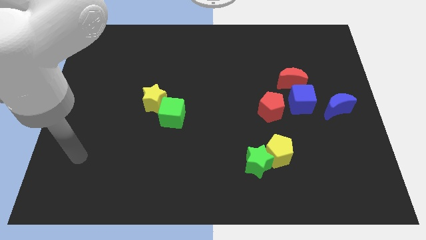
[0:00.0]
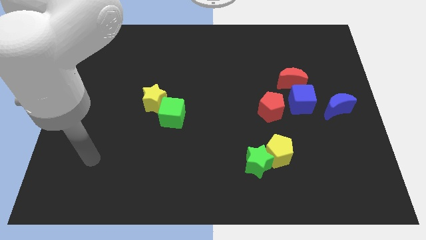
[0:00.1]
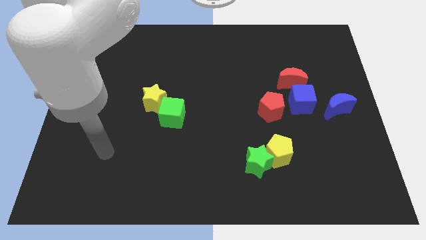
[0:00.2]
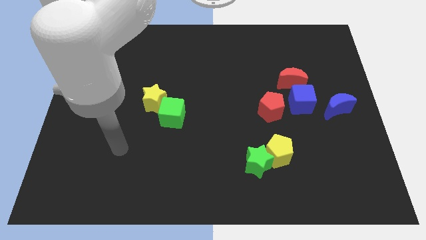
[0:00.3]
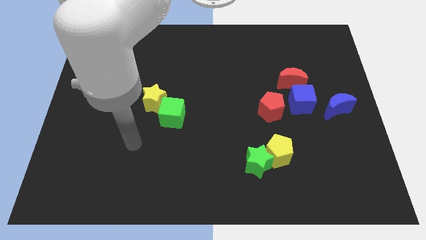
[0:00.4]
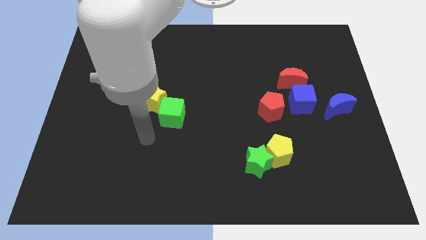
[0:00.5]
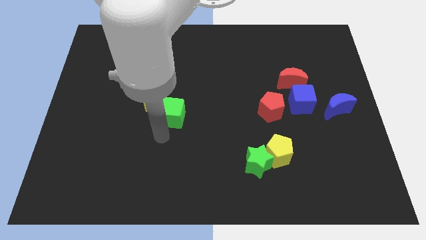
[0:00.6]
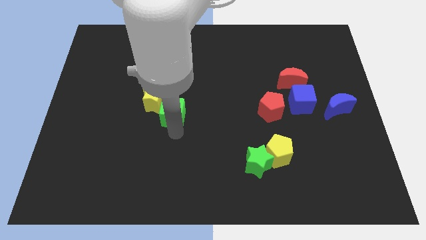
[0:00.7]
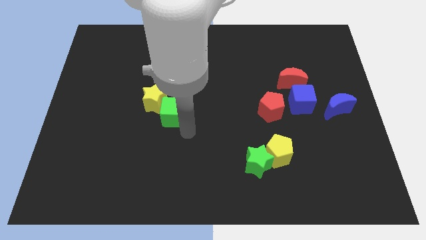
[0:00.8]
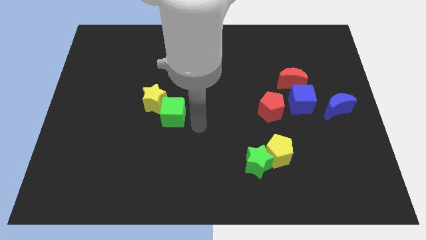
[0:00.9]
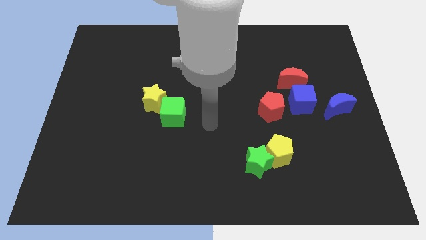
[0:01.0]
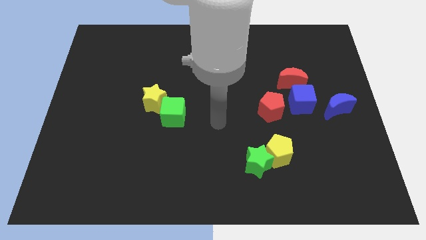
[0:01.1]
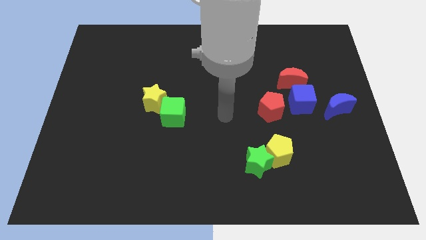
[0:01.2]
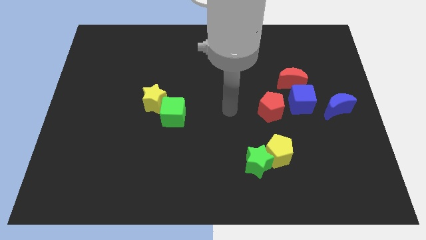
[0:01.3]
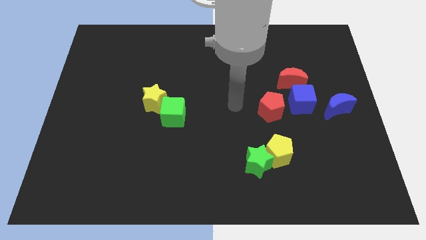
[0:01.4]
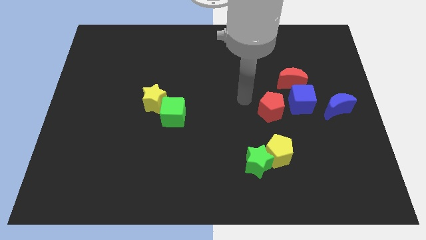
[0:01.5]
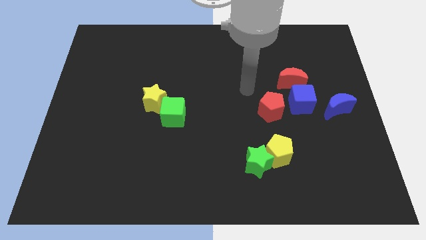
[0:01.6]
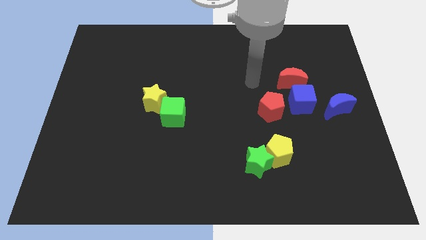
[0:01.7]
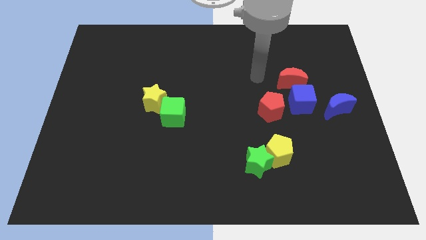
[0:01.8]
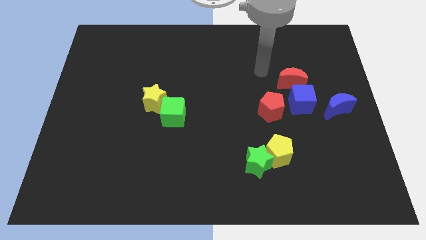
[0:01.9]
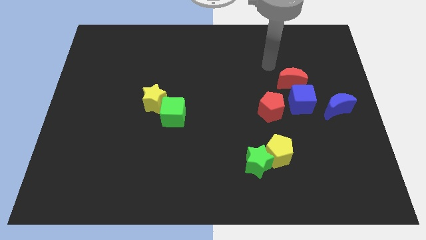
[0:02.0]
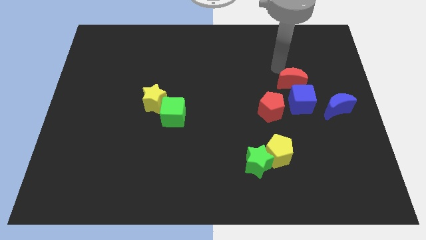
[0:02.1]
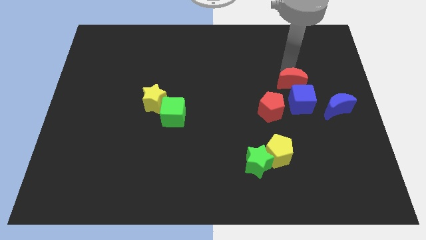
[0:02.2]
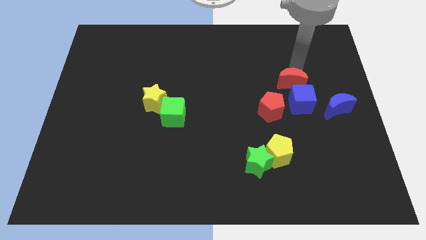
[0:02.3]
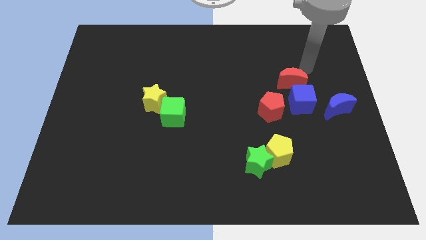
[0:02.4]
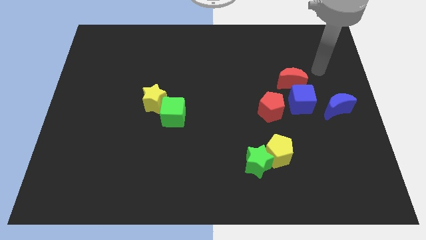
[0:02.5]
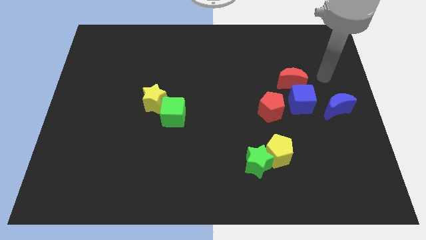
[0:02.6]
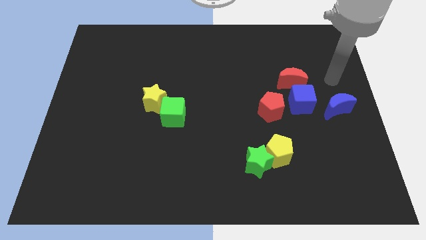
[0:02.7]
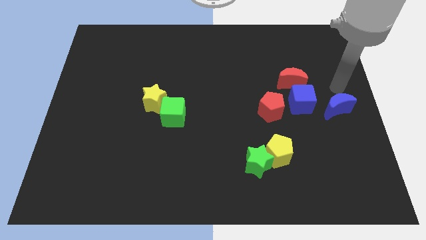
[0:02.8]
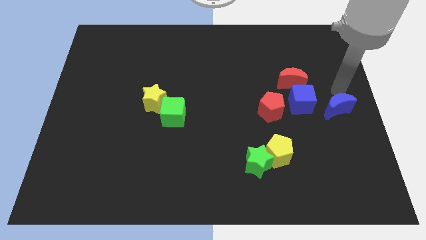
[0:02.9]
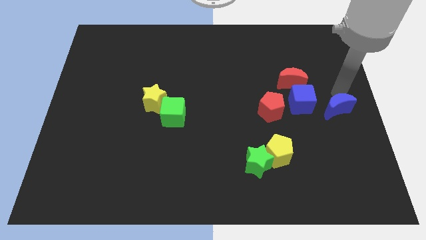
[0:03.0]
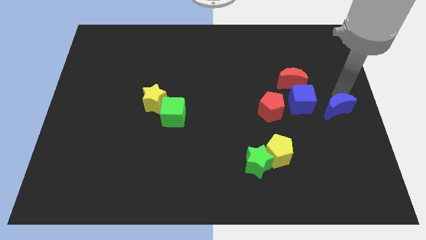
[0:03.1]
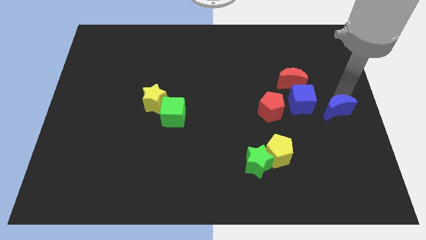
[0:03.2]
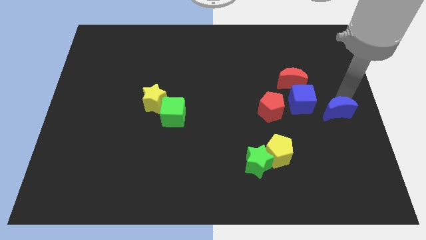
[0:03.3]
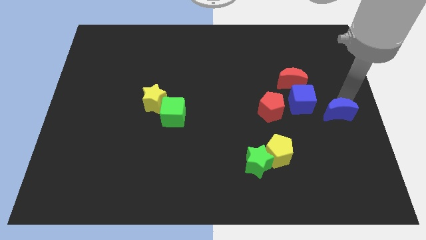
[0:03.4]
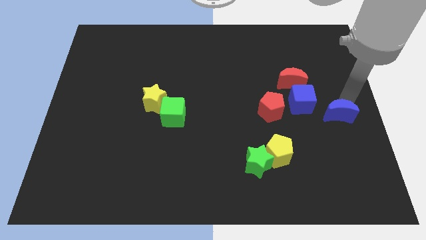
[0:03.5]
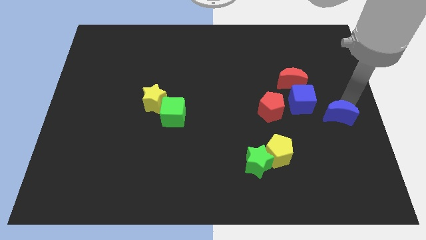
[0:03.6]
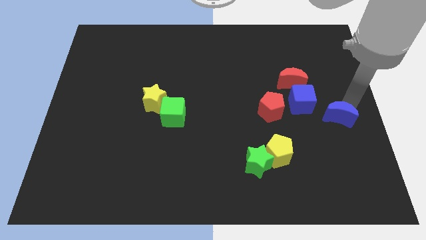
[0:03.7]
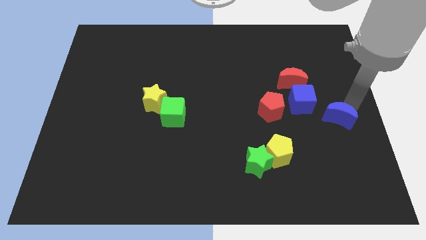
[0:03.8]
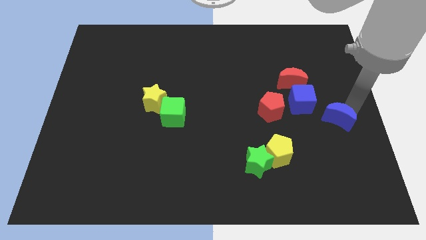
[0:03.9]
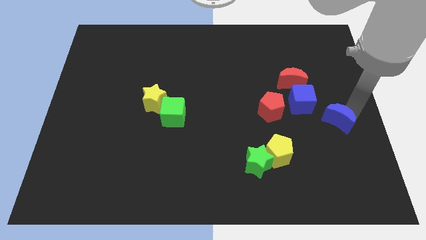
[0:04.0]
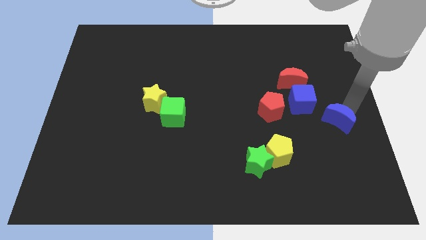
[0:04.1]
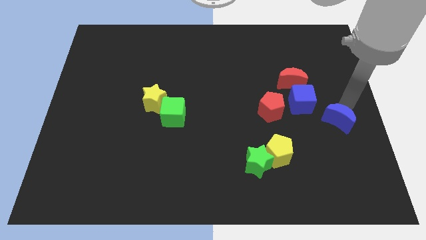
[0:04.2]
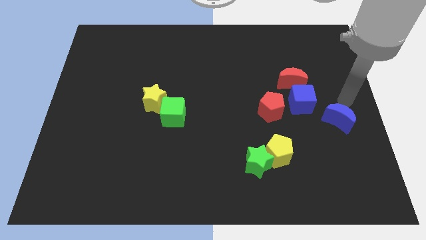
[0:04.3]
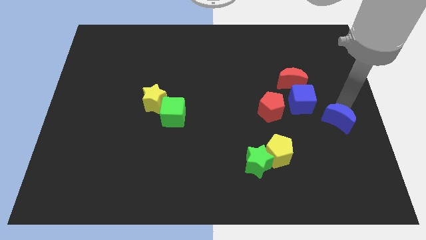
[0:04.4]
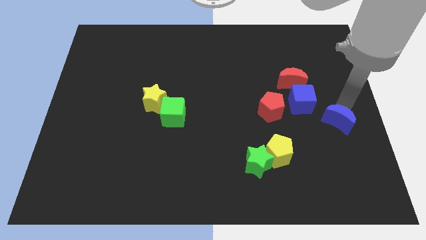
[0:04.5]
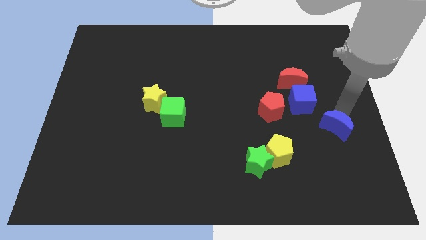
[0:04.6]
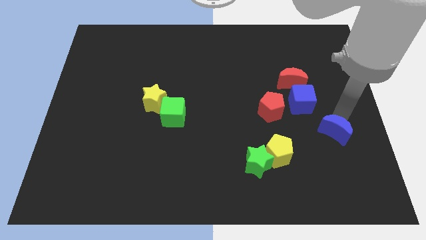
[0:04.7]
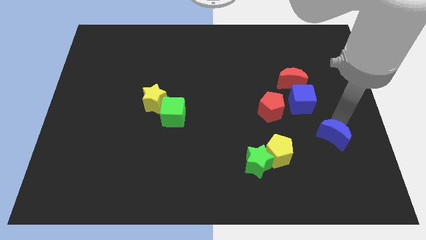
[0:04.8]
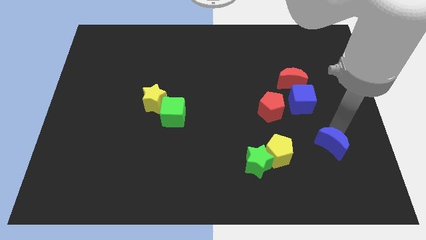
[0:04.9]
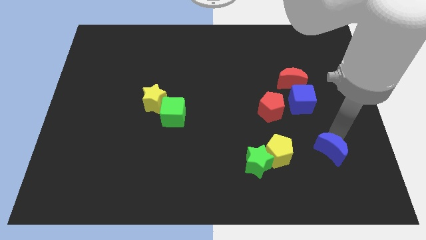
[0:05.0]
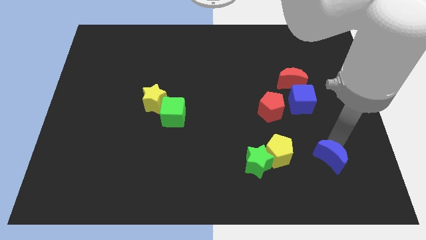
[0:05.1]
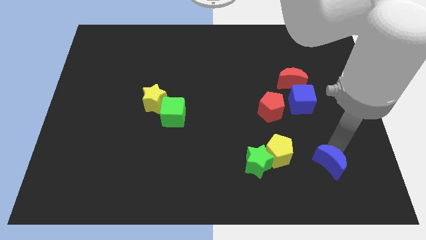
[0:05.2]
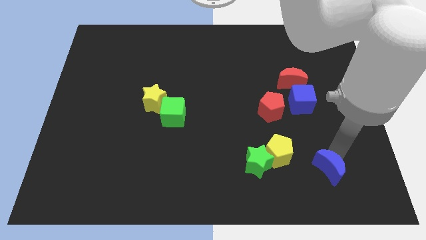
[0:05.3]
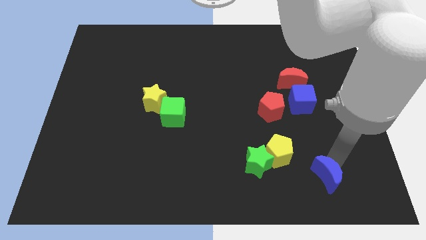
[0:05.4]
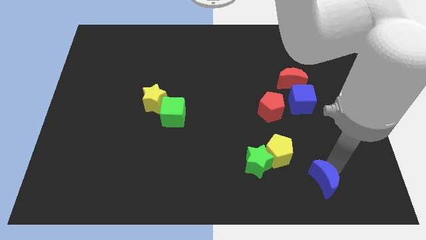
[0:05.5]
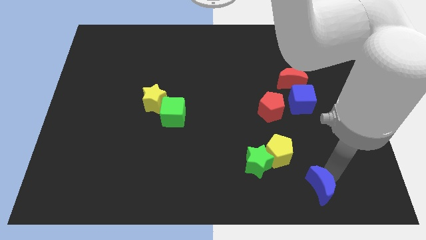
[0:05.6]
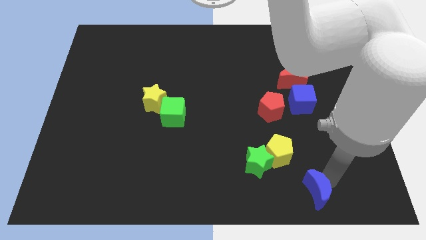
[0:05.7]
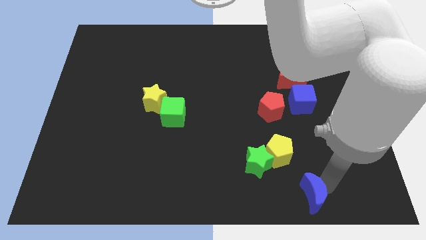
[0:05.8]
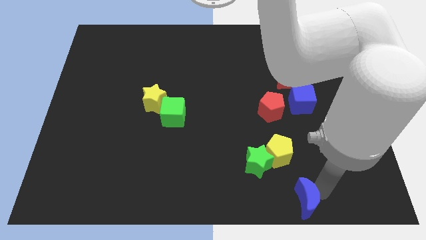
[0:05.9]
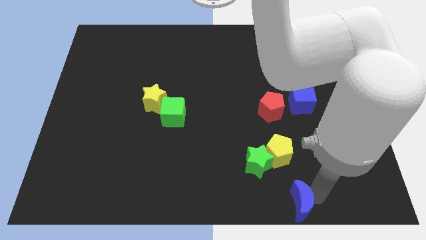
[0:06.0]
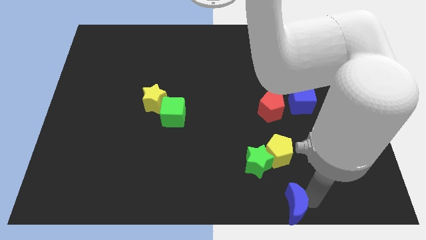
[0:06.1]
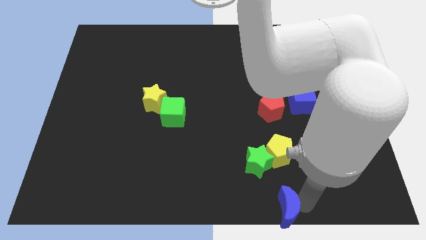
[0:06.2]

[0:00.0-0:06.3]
slide the blue moon to the bottom side

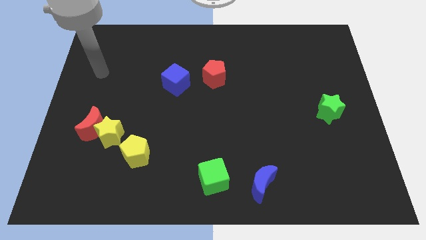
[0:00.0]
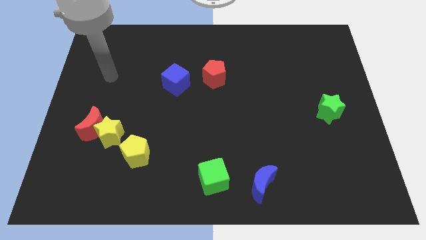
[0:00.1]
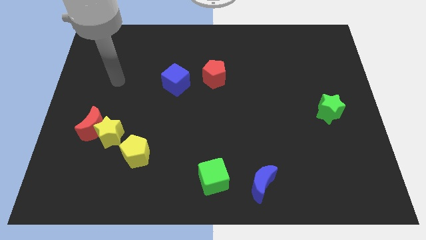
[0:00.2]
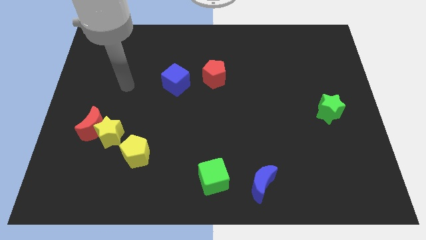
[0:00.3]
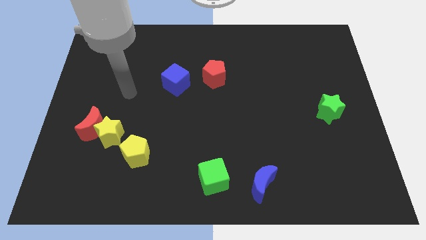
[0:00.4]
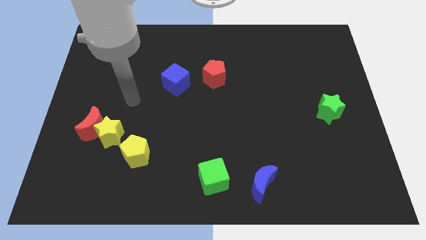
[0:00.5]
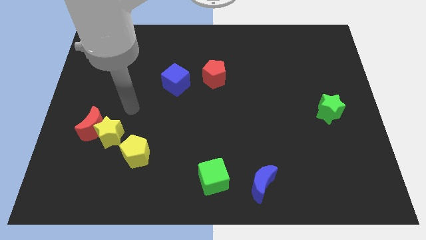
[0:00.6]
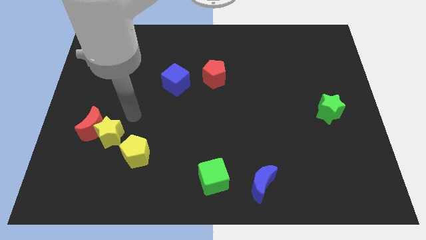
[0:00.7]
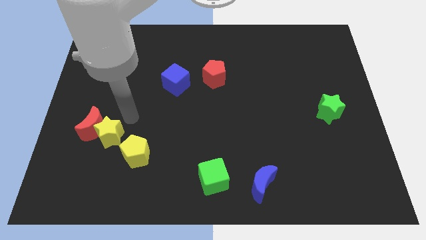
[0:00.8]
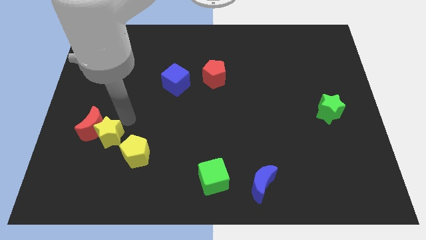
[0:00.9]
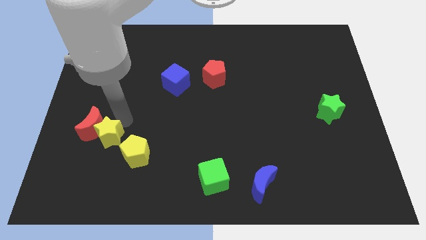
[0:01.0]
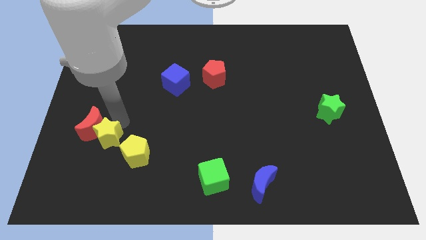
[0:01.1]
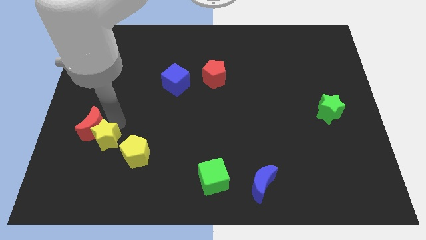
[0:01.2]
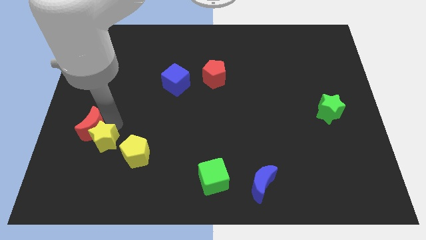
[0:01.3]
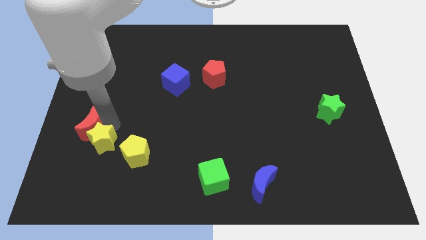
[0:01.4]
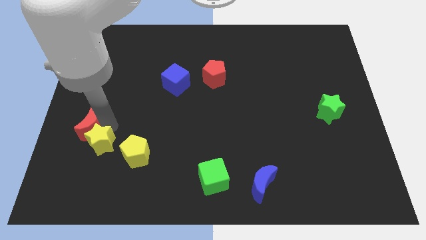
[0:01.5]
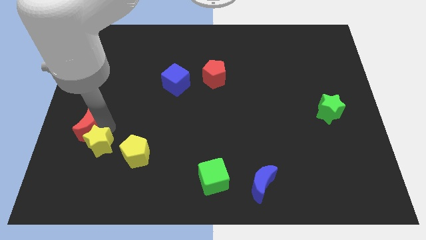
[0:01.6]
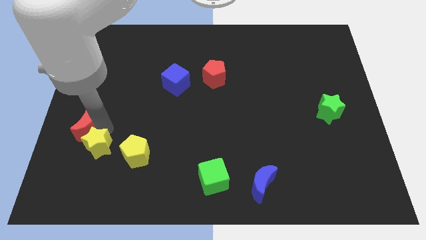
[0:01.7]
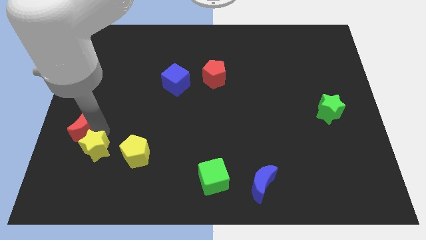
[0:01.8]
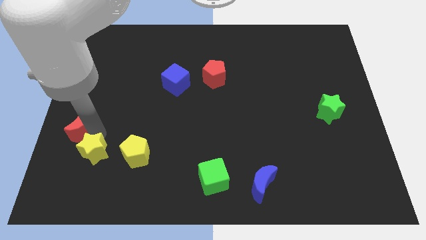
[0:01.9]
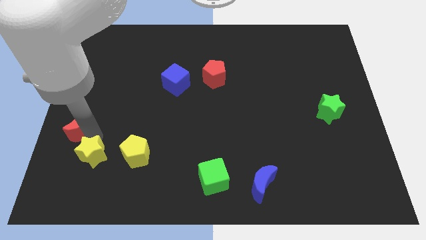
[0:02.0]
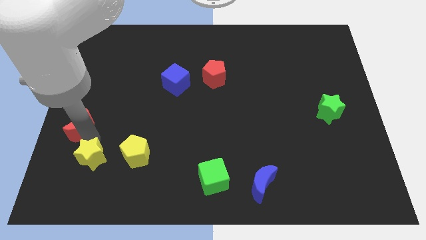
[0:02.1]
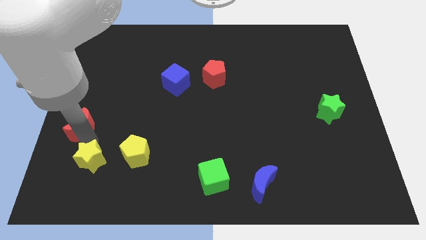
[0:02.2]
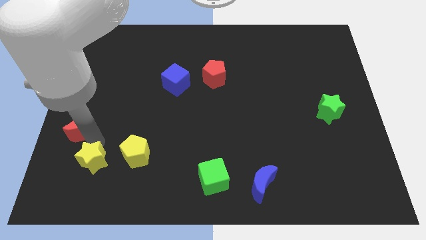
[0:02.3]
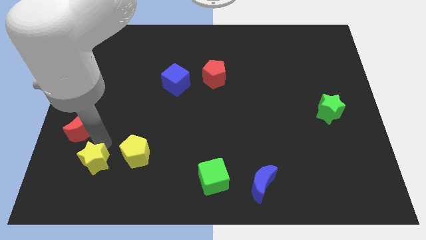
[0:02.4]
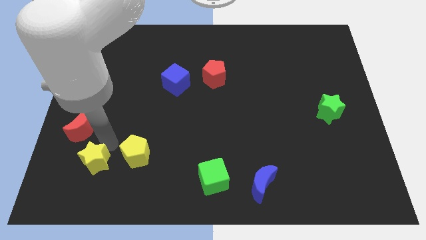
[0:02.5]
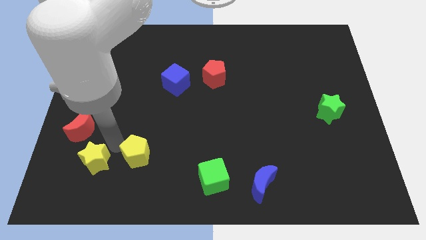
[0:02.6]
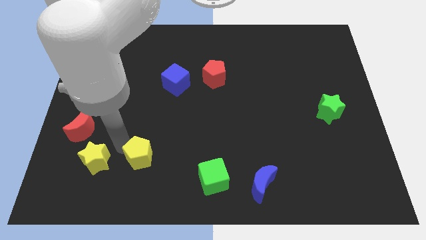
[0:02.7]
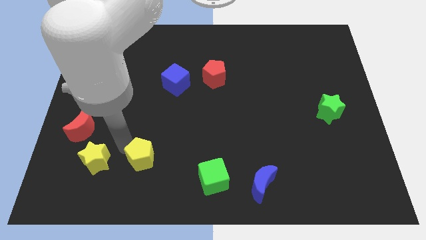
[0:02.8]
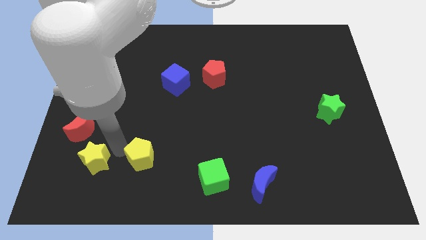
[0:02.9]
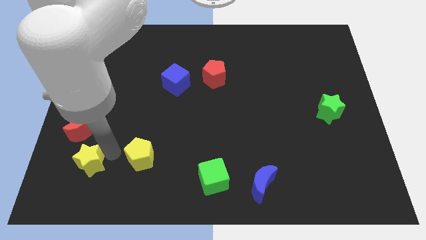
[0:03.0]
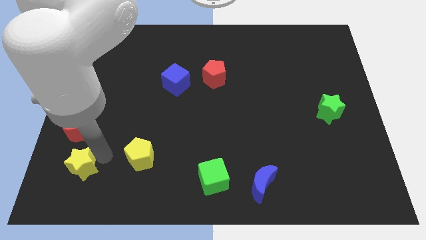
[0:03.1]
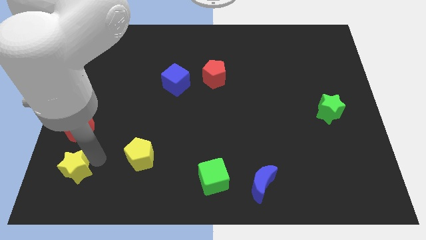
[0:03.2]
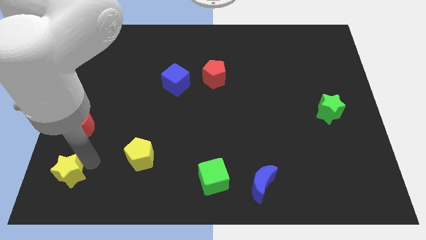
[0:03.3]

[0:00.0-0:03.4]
slide the yellow star to the bottom left corner
